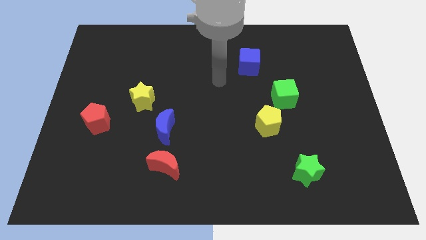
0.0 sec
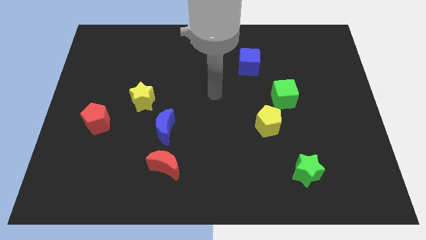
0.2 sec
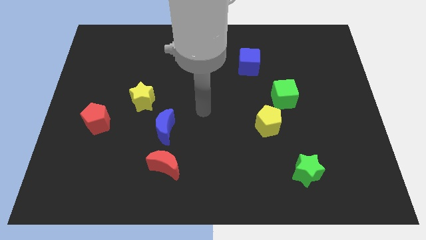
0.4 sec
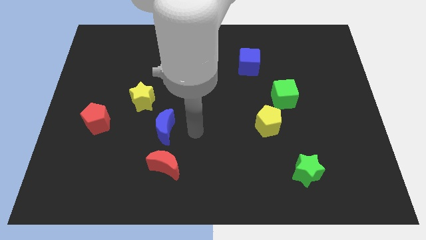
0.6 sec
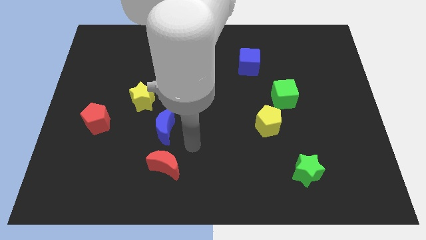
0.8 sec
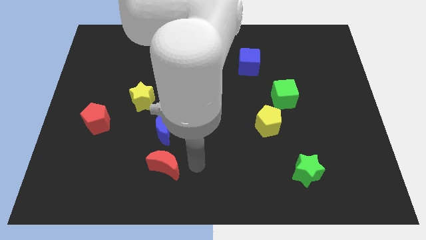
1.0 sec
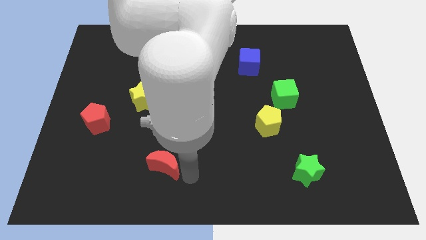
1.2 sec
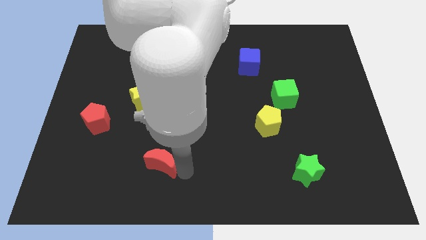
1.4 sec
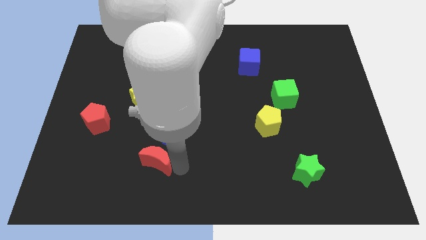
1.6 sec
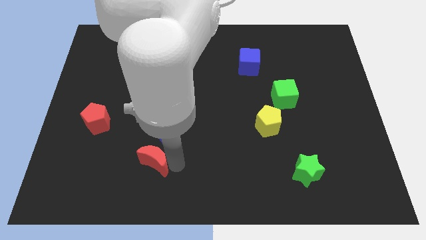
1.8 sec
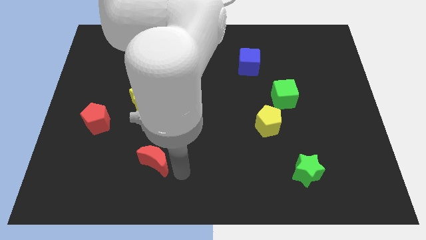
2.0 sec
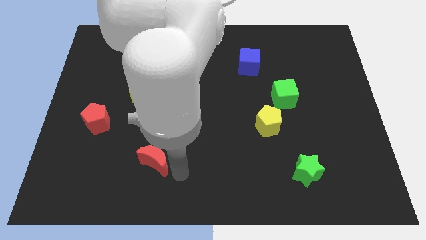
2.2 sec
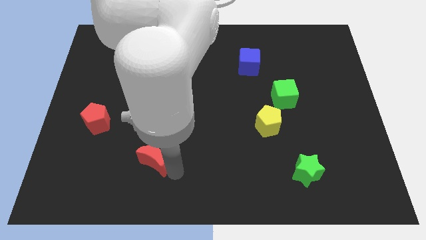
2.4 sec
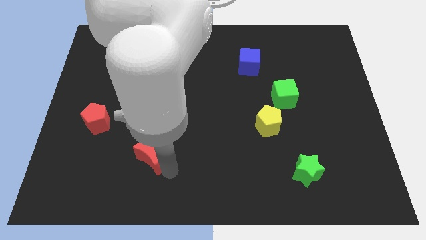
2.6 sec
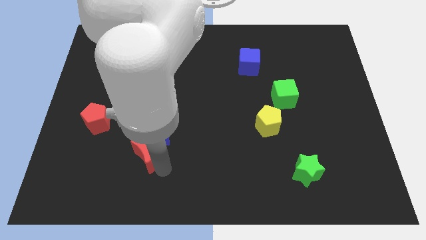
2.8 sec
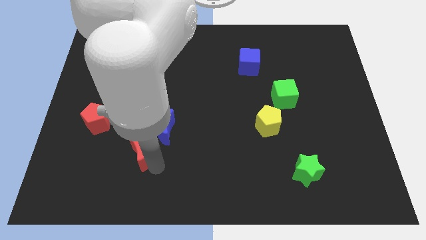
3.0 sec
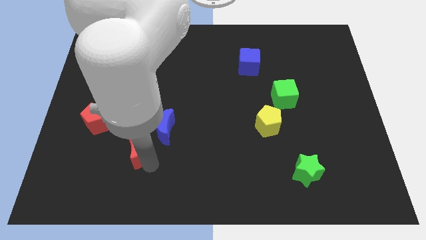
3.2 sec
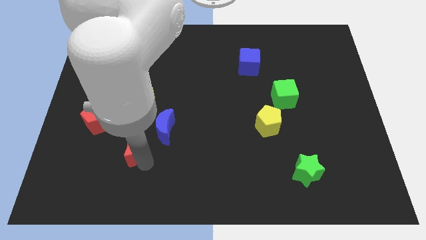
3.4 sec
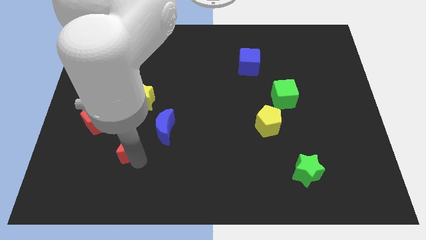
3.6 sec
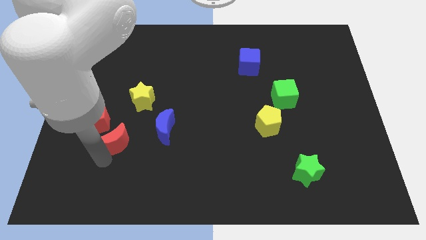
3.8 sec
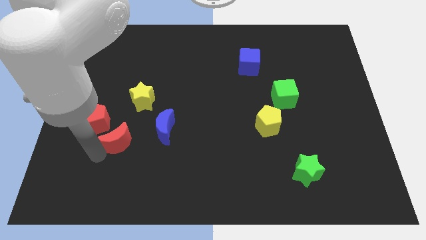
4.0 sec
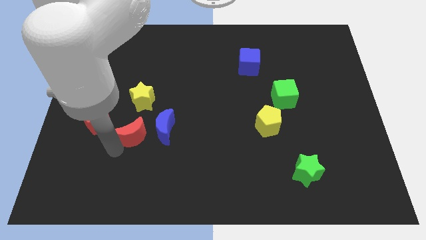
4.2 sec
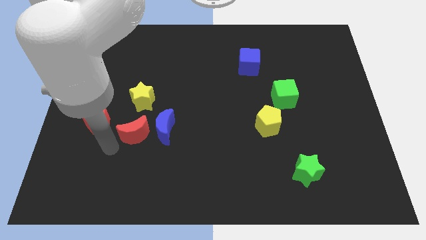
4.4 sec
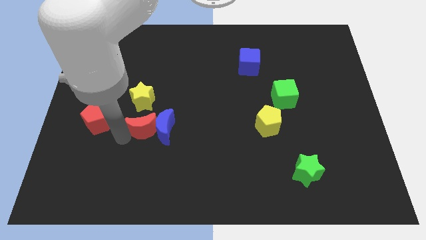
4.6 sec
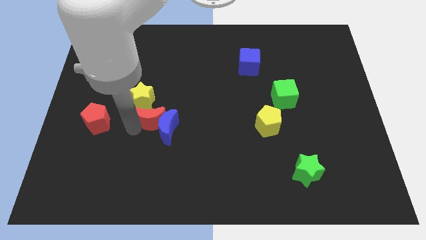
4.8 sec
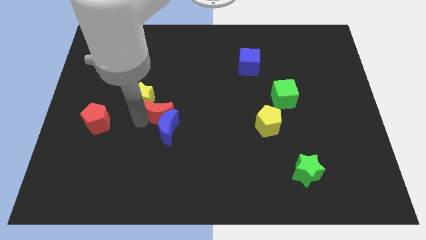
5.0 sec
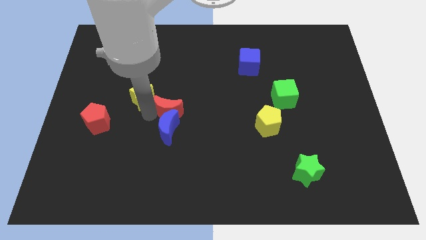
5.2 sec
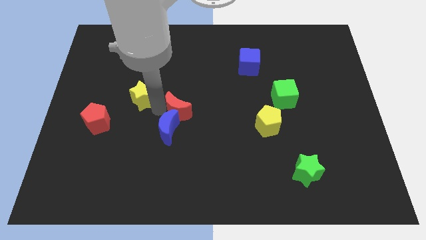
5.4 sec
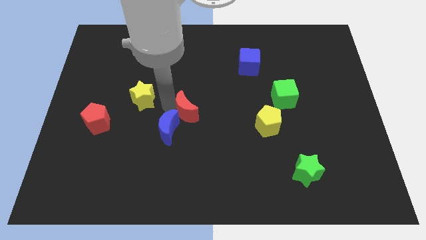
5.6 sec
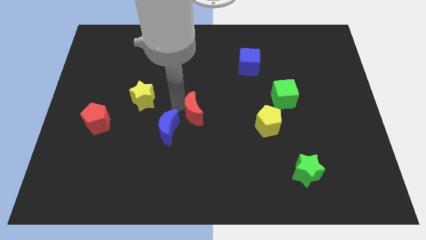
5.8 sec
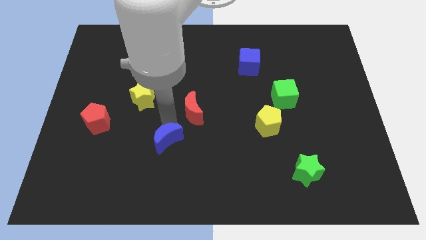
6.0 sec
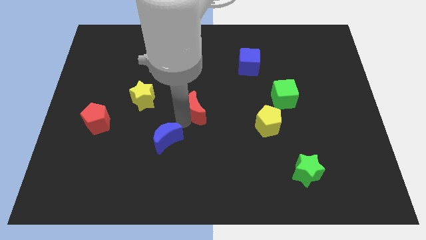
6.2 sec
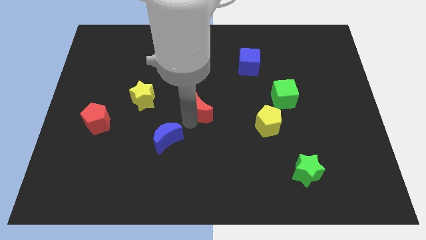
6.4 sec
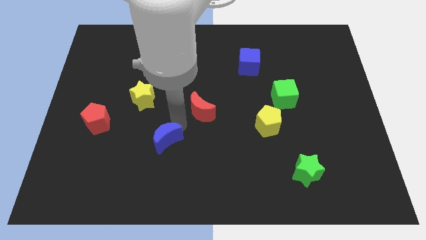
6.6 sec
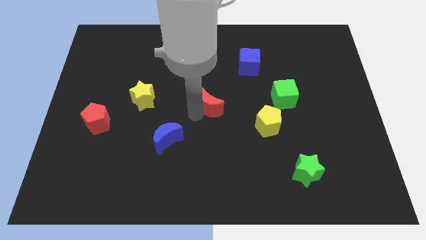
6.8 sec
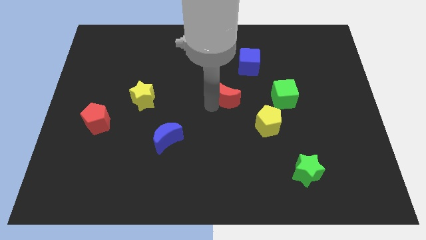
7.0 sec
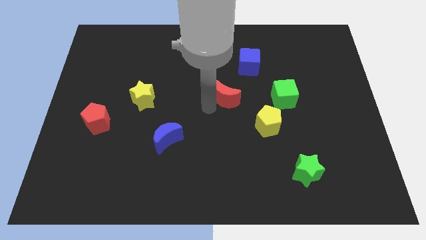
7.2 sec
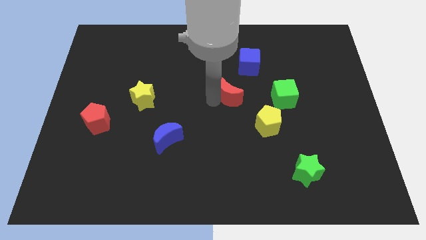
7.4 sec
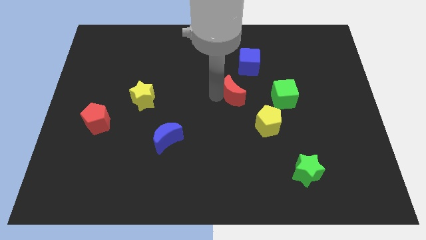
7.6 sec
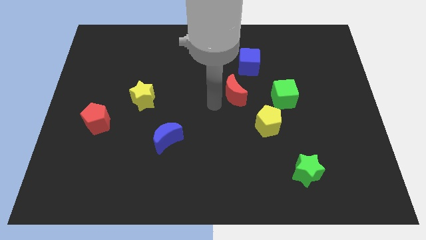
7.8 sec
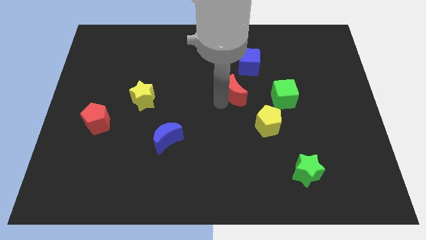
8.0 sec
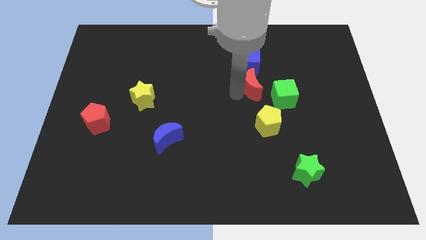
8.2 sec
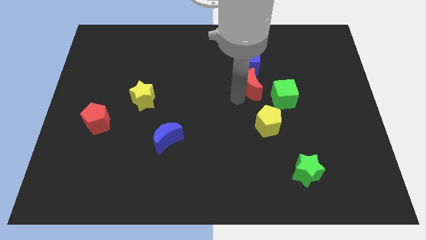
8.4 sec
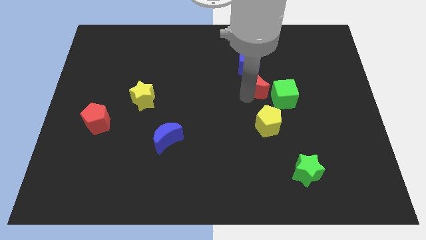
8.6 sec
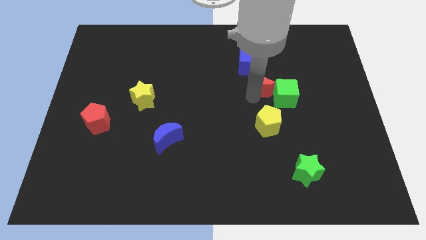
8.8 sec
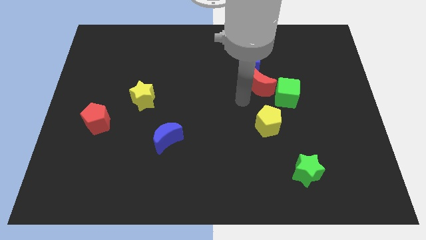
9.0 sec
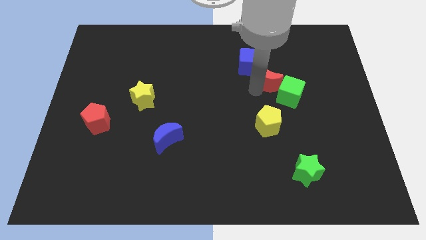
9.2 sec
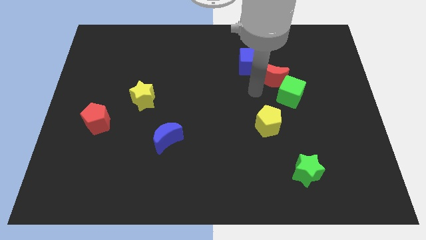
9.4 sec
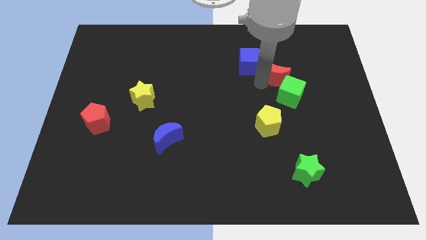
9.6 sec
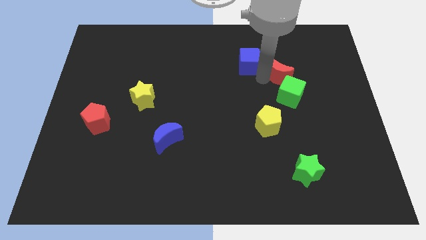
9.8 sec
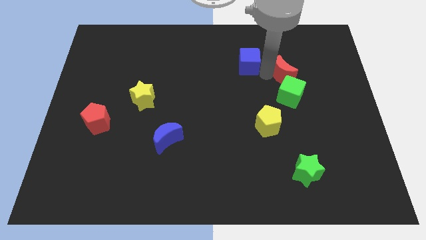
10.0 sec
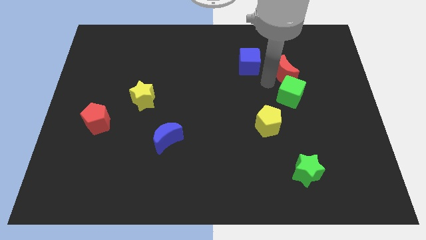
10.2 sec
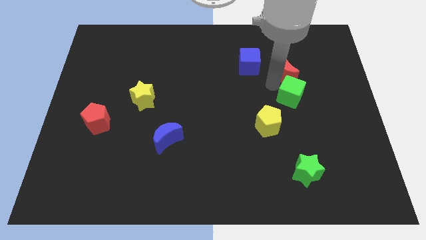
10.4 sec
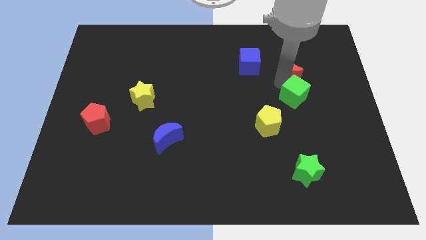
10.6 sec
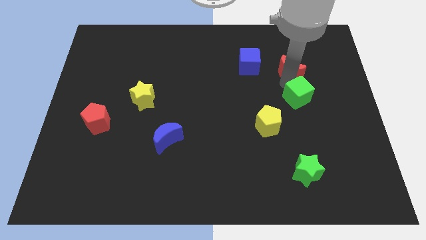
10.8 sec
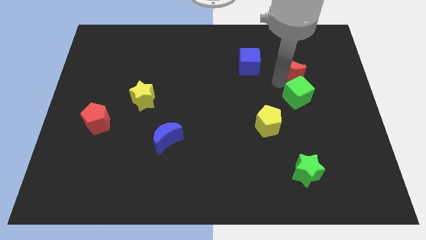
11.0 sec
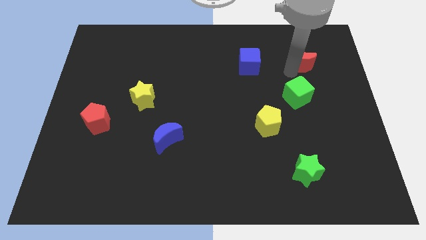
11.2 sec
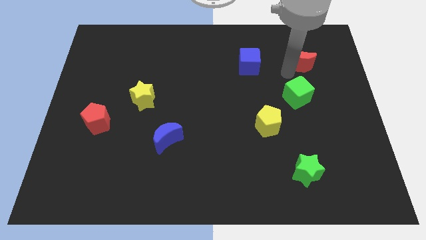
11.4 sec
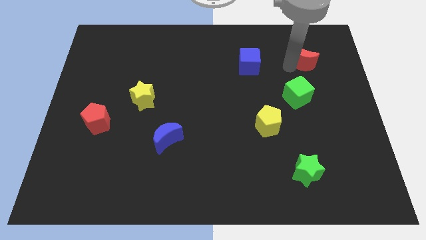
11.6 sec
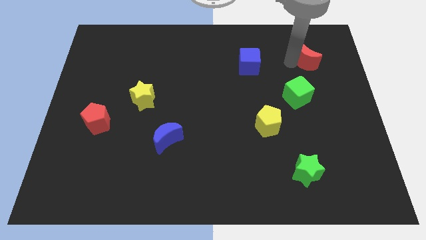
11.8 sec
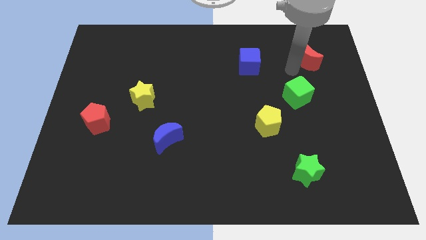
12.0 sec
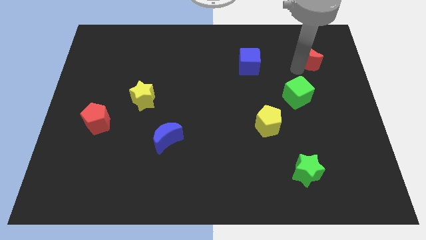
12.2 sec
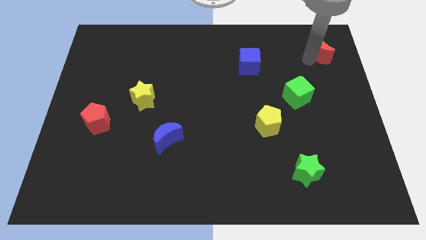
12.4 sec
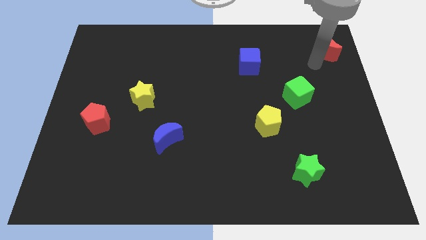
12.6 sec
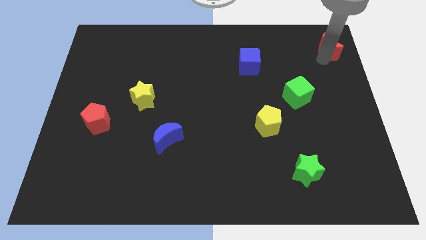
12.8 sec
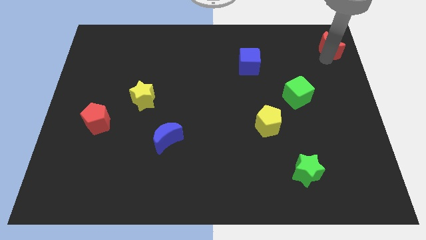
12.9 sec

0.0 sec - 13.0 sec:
move the red moon to the top right corner
